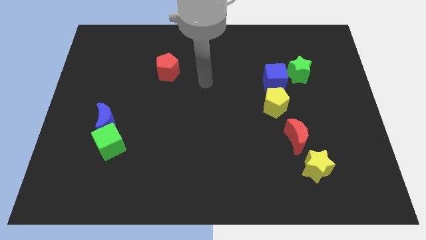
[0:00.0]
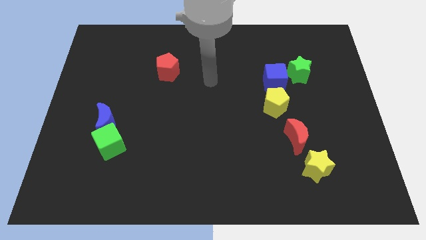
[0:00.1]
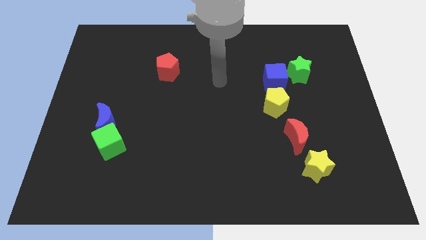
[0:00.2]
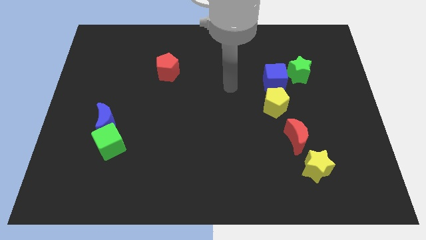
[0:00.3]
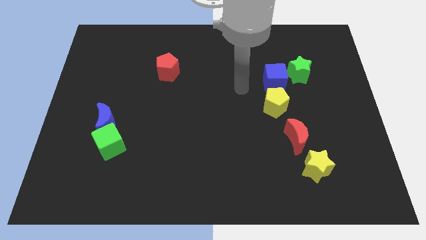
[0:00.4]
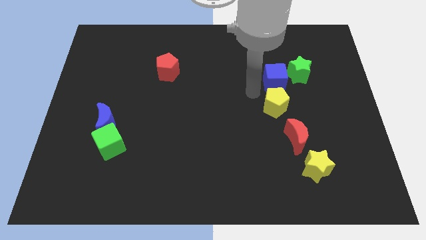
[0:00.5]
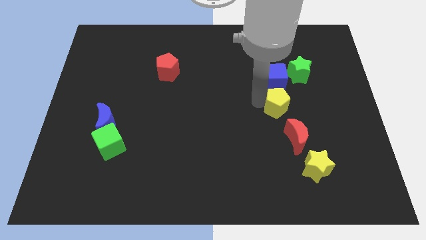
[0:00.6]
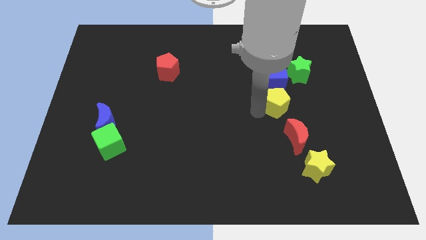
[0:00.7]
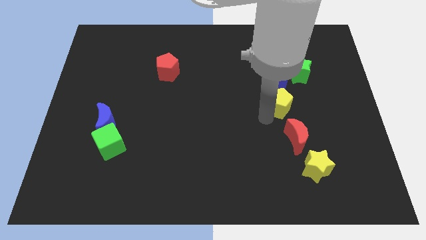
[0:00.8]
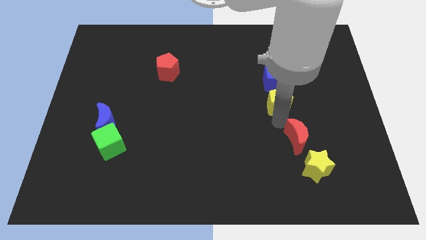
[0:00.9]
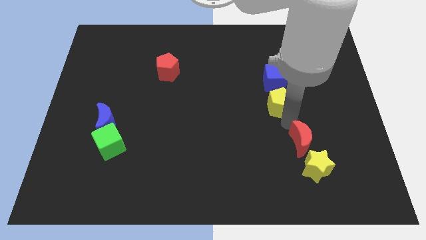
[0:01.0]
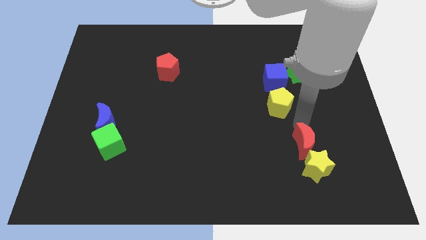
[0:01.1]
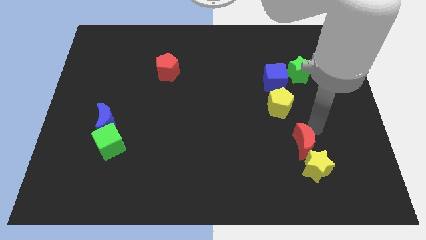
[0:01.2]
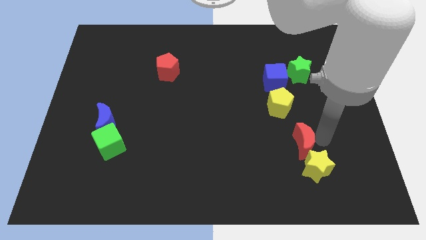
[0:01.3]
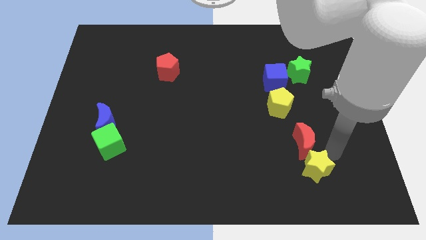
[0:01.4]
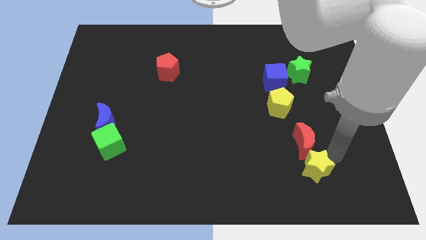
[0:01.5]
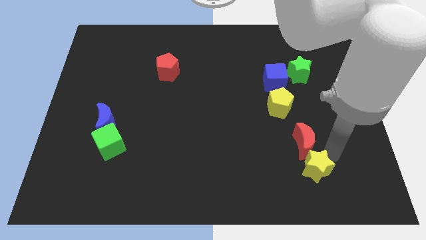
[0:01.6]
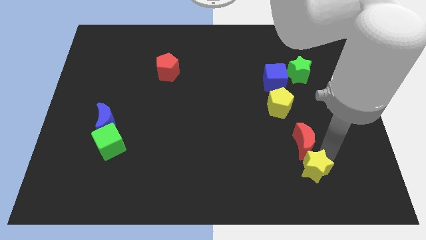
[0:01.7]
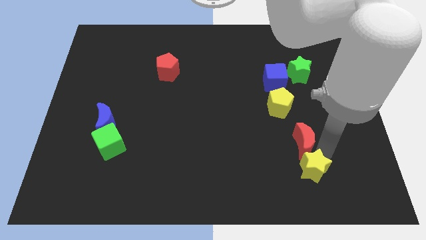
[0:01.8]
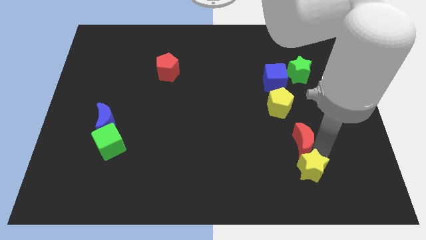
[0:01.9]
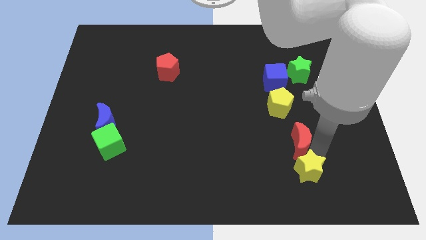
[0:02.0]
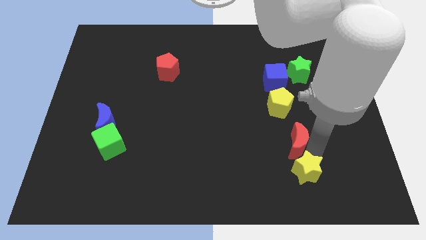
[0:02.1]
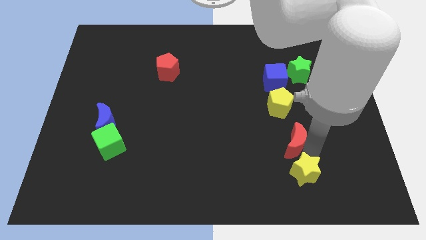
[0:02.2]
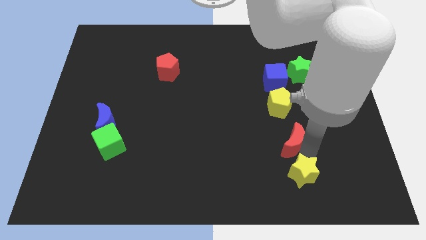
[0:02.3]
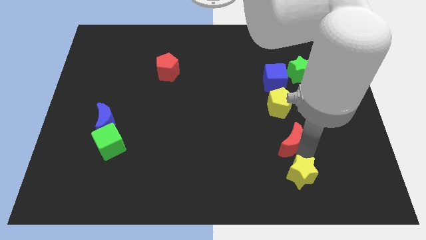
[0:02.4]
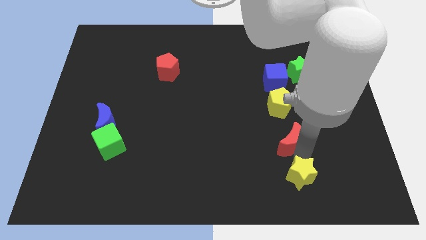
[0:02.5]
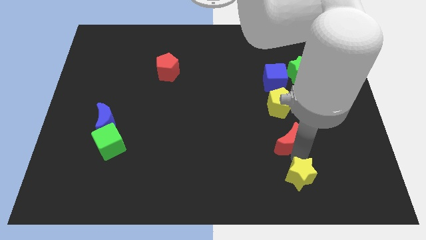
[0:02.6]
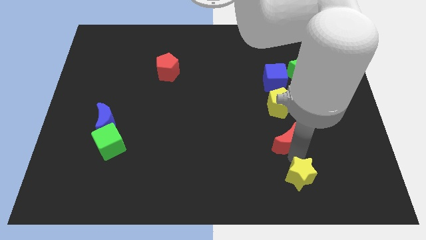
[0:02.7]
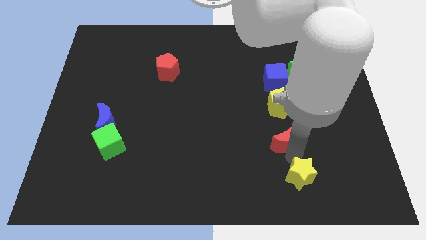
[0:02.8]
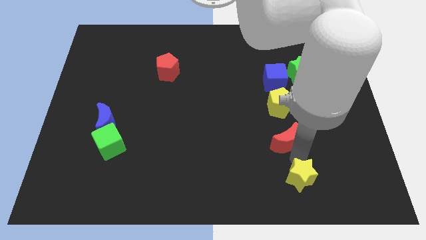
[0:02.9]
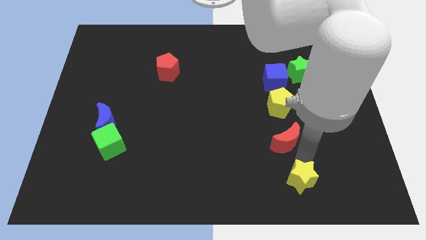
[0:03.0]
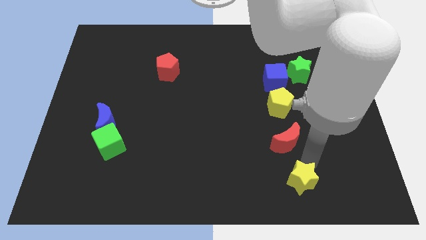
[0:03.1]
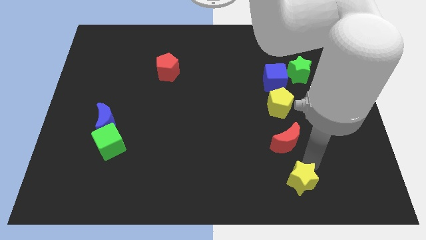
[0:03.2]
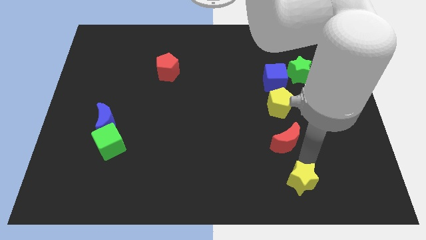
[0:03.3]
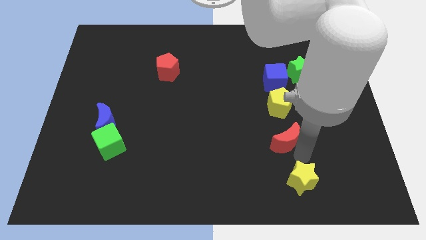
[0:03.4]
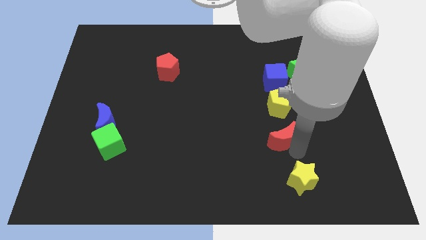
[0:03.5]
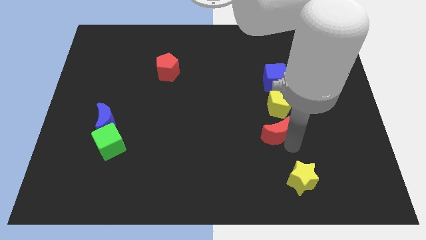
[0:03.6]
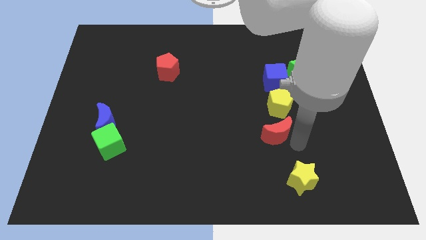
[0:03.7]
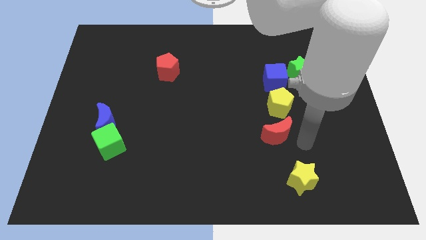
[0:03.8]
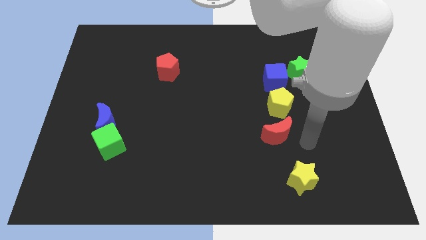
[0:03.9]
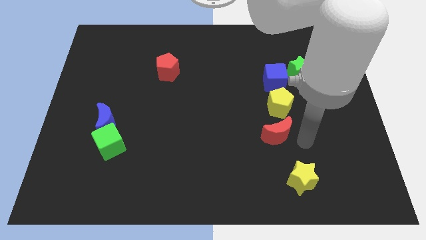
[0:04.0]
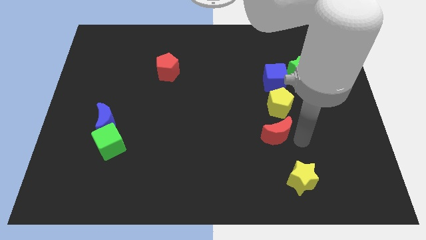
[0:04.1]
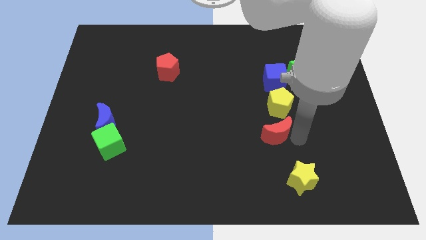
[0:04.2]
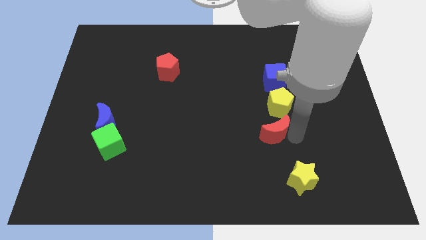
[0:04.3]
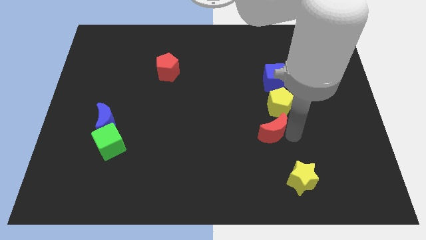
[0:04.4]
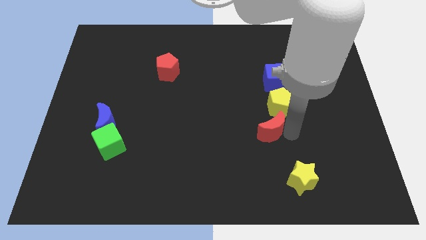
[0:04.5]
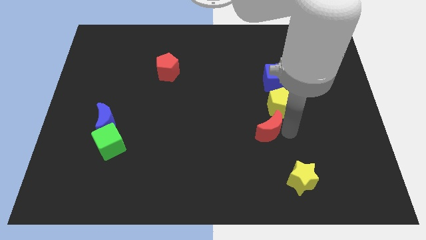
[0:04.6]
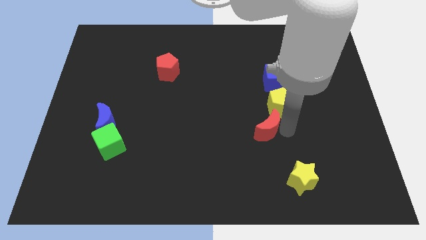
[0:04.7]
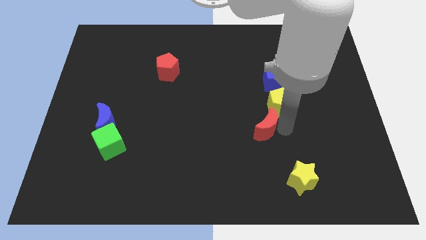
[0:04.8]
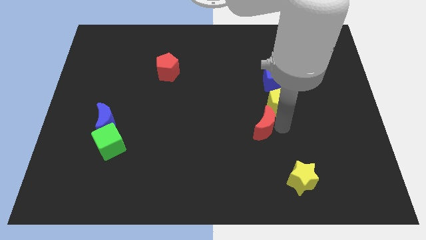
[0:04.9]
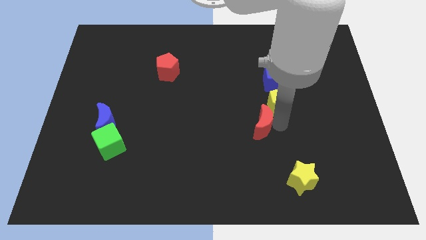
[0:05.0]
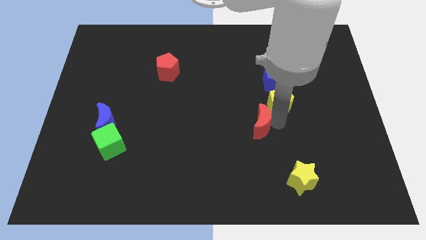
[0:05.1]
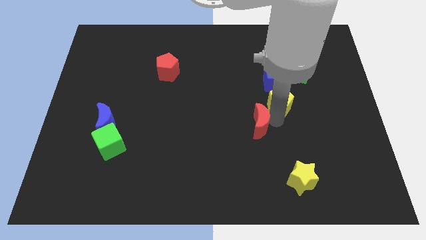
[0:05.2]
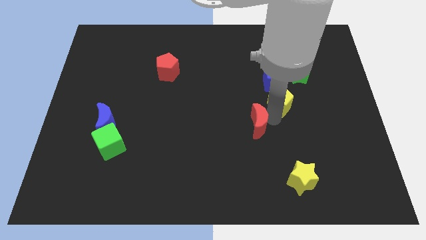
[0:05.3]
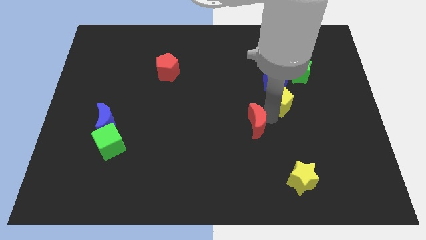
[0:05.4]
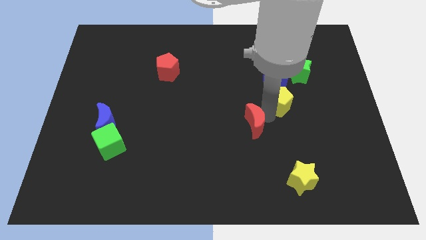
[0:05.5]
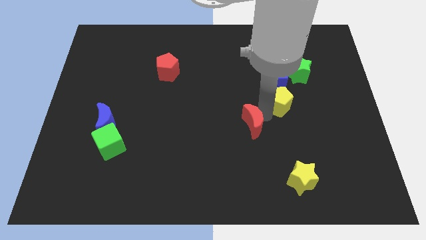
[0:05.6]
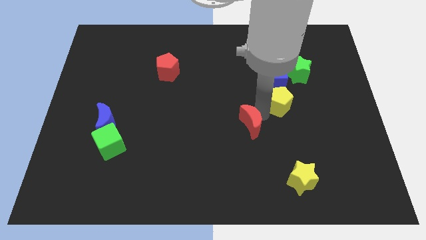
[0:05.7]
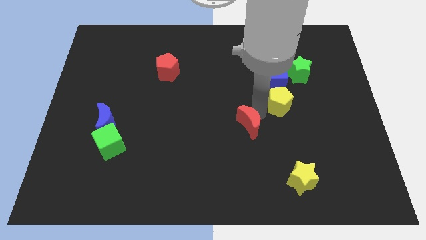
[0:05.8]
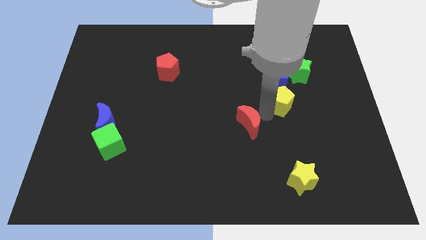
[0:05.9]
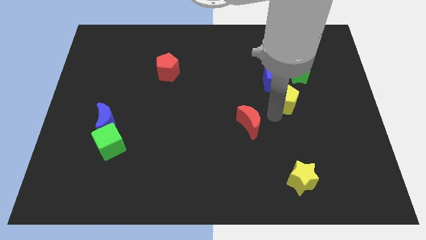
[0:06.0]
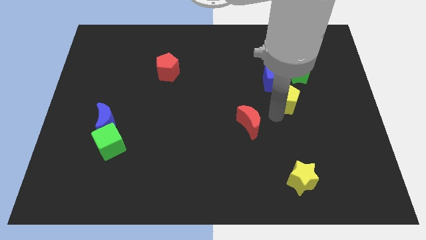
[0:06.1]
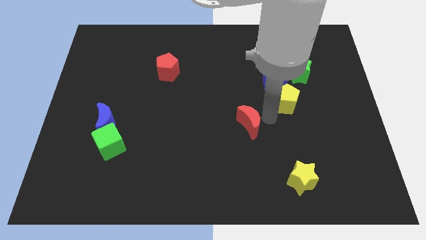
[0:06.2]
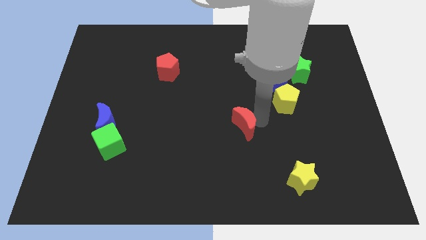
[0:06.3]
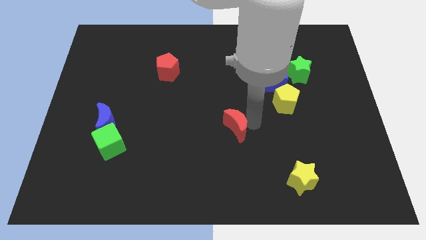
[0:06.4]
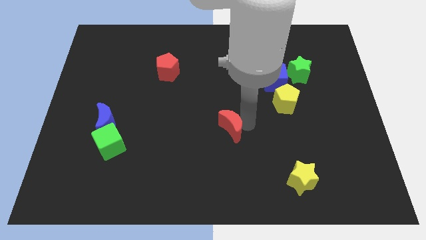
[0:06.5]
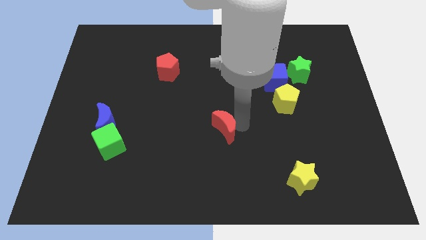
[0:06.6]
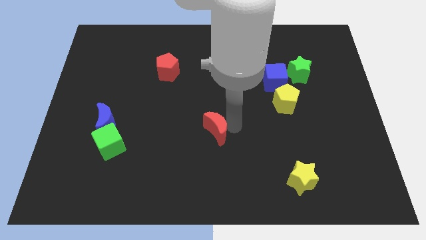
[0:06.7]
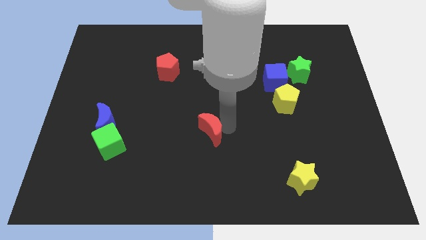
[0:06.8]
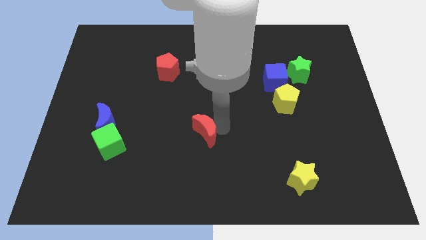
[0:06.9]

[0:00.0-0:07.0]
slide the red moon left

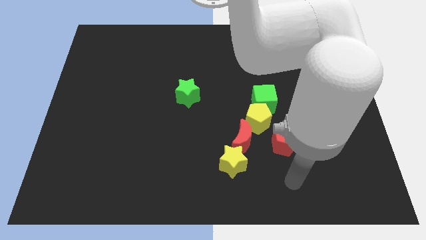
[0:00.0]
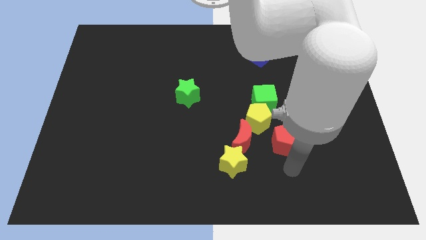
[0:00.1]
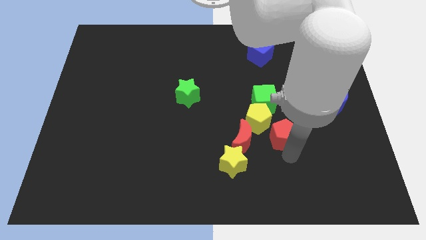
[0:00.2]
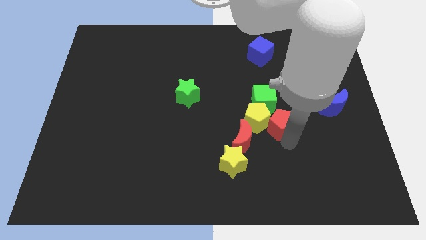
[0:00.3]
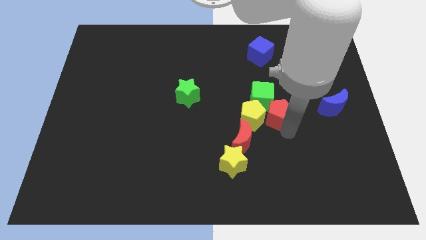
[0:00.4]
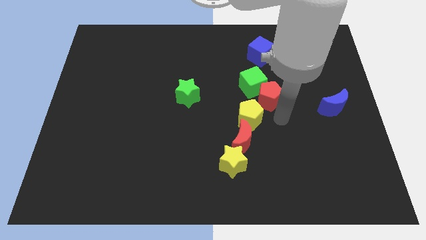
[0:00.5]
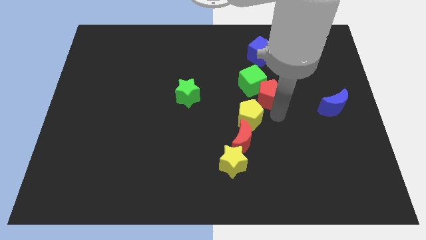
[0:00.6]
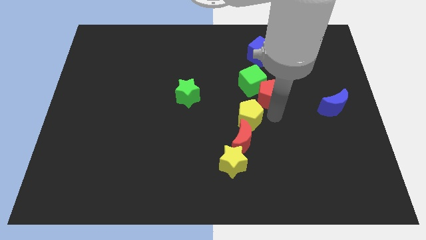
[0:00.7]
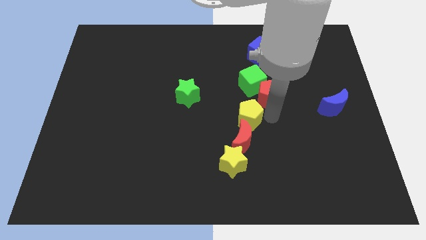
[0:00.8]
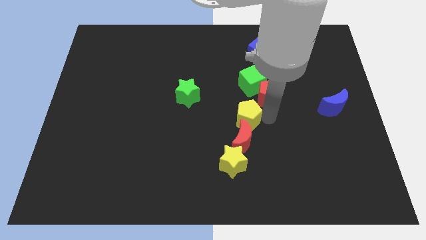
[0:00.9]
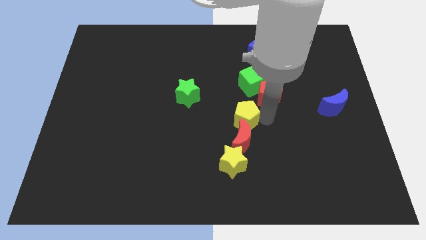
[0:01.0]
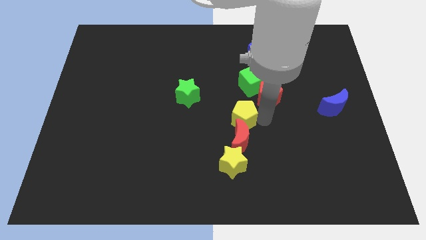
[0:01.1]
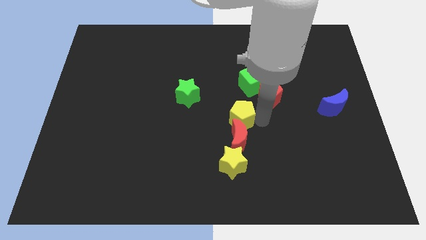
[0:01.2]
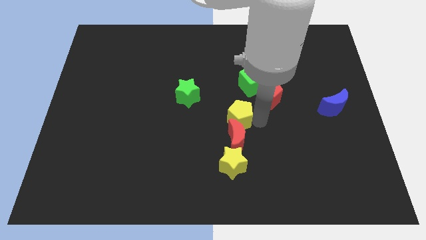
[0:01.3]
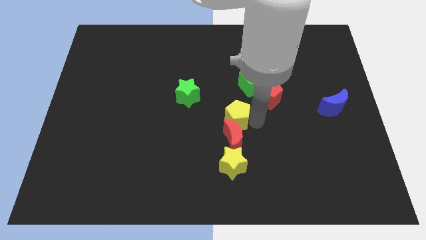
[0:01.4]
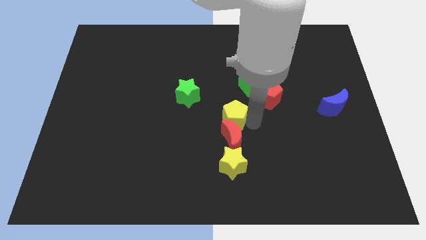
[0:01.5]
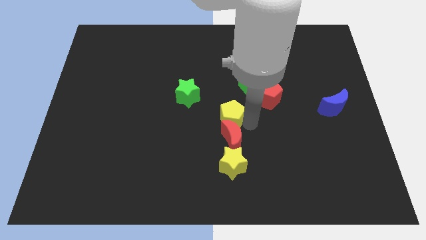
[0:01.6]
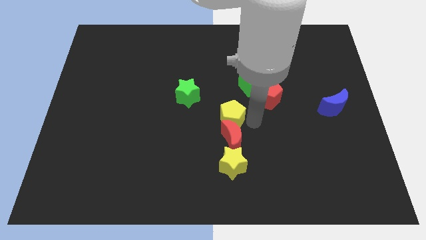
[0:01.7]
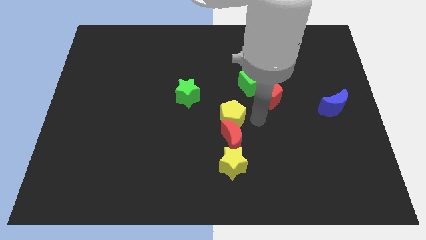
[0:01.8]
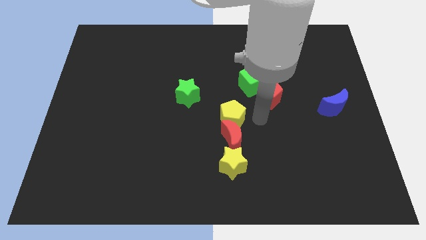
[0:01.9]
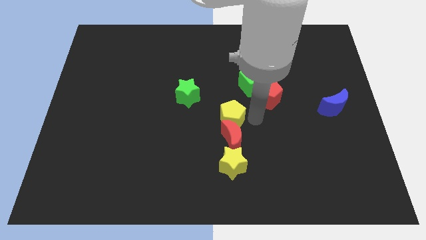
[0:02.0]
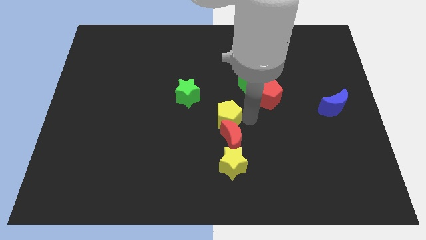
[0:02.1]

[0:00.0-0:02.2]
push the yellow pentagon slightly left
